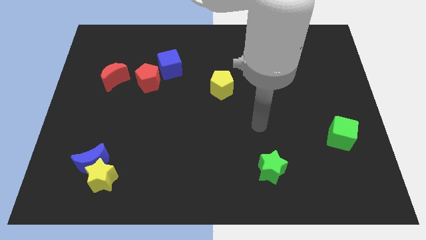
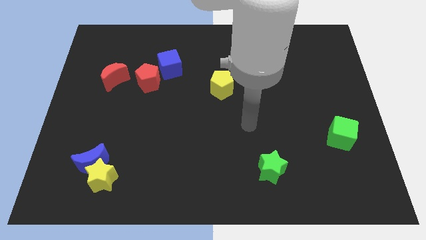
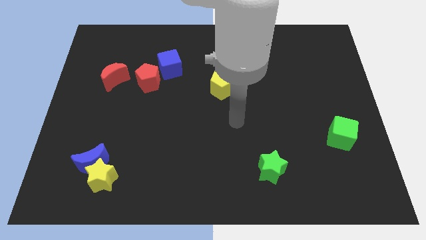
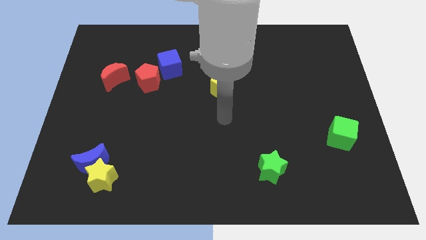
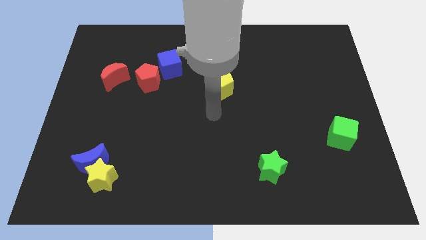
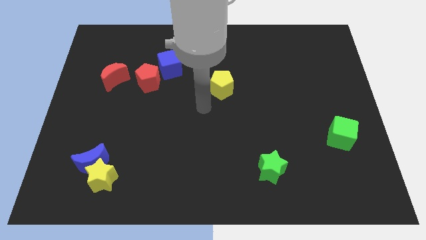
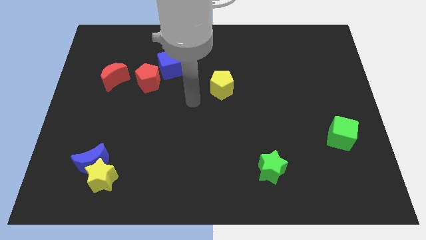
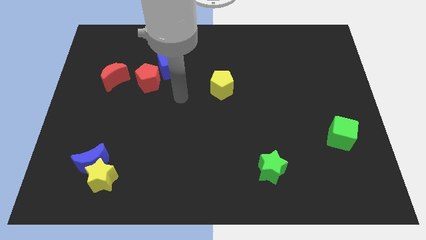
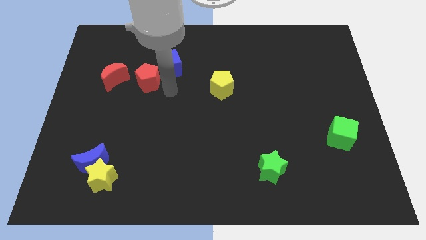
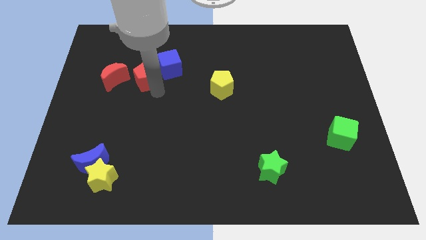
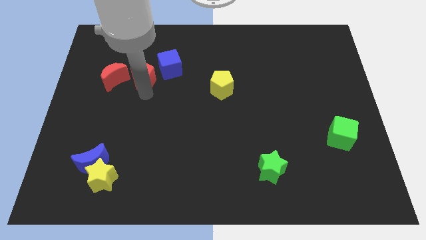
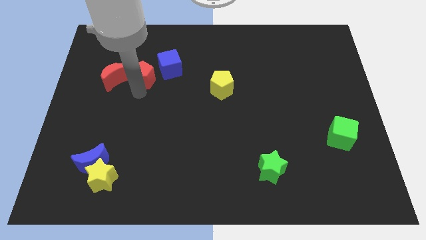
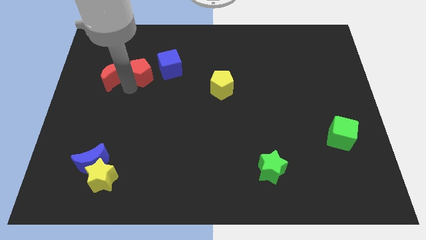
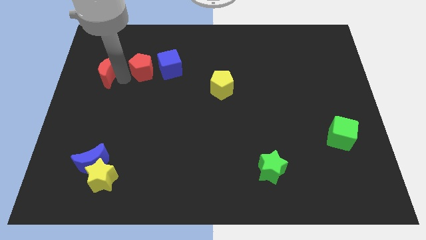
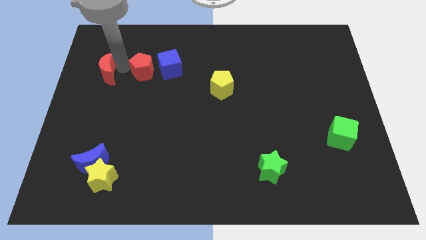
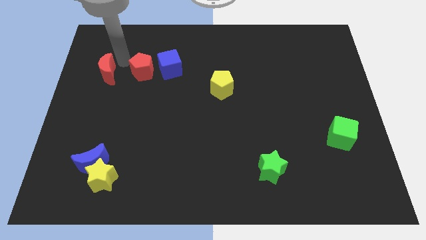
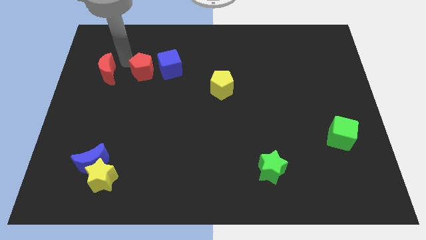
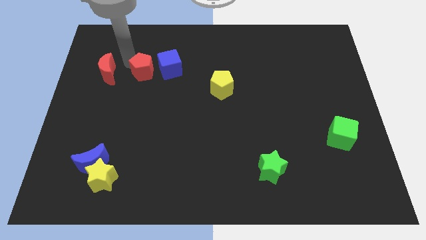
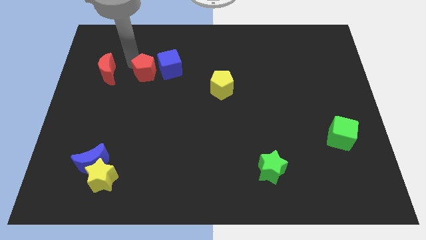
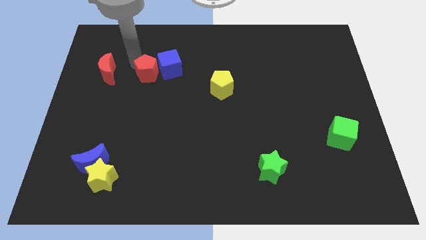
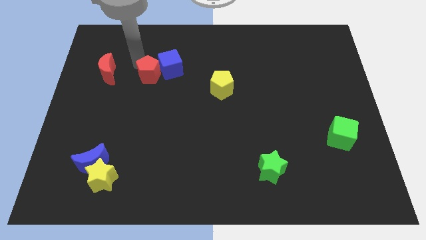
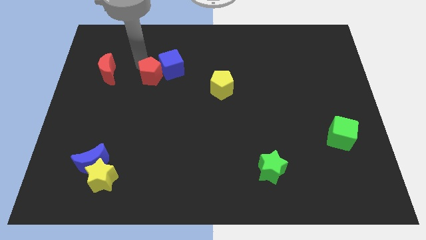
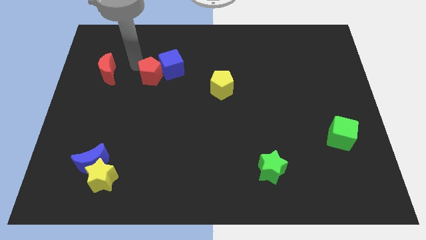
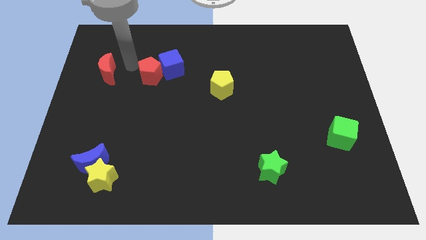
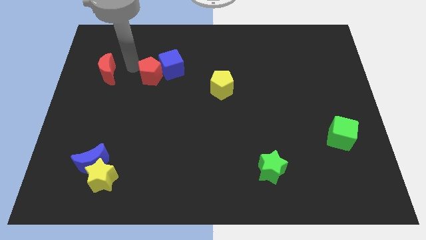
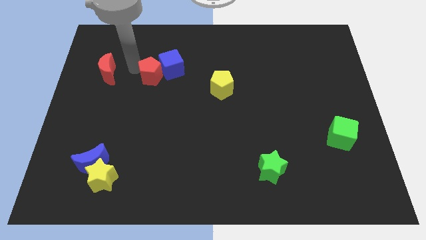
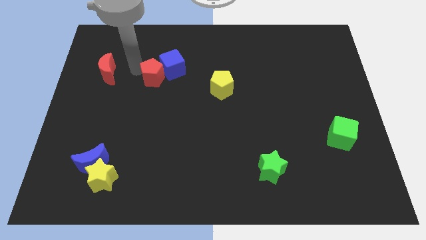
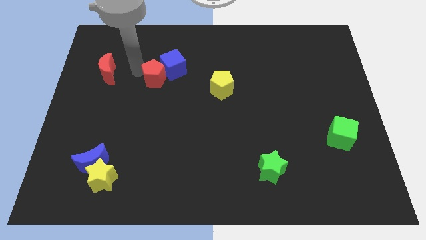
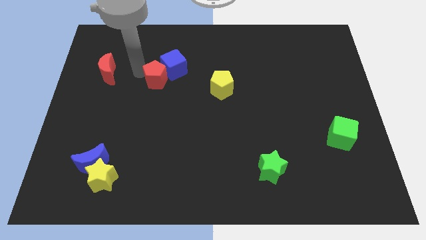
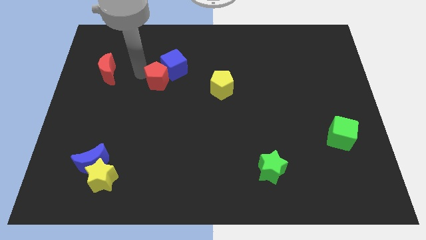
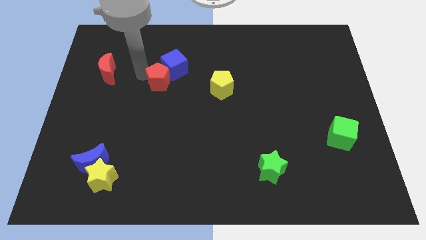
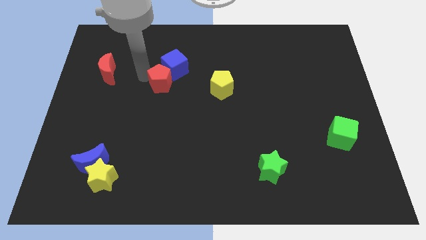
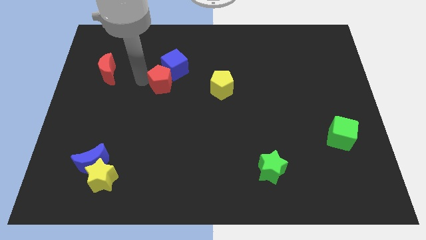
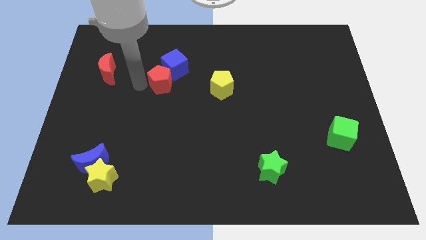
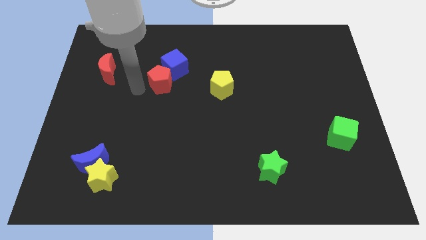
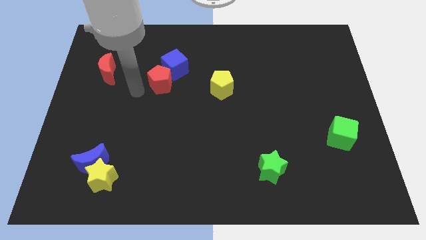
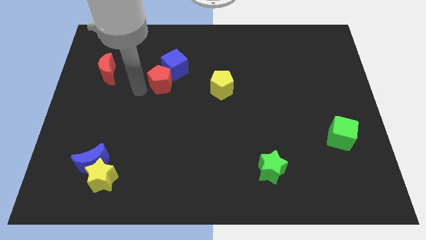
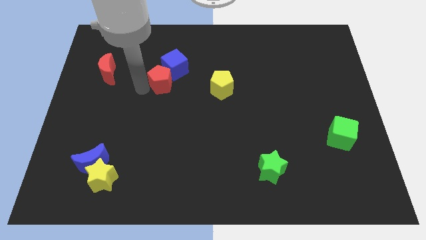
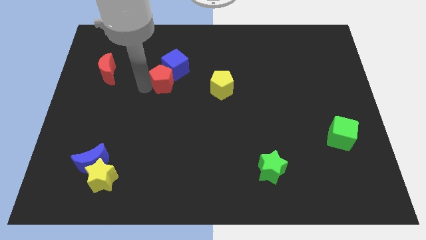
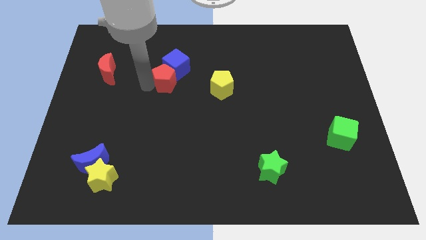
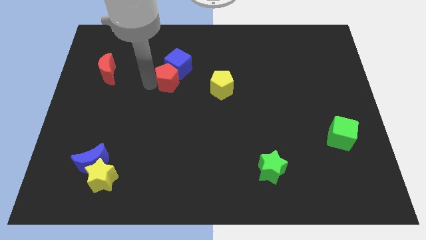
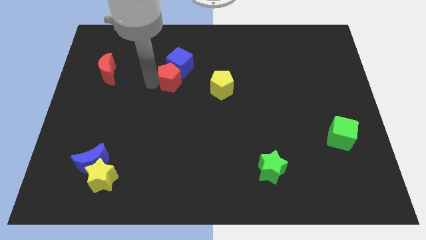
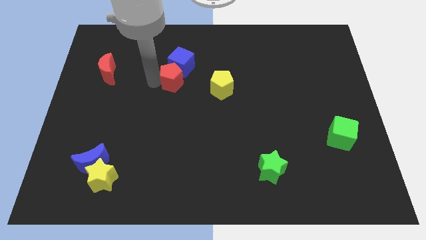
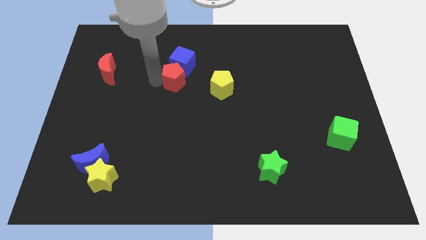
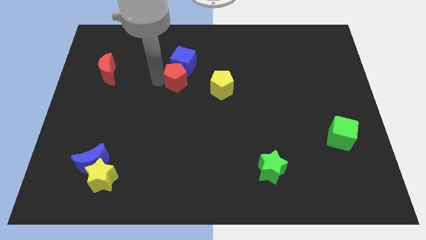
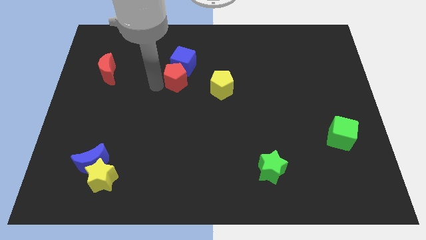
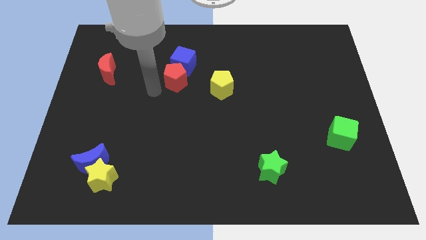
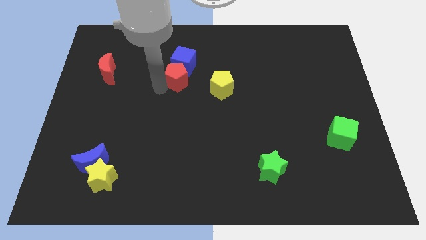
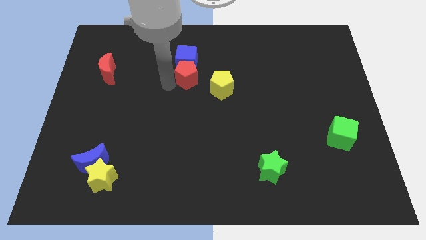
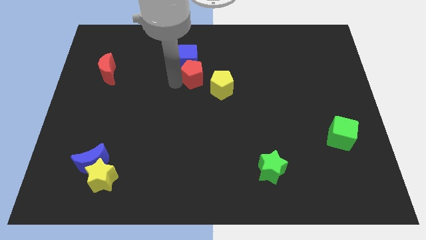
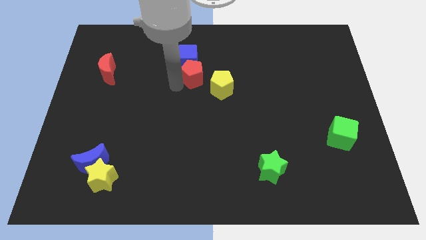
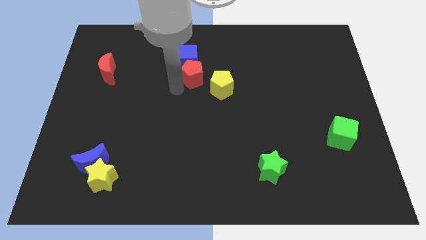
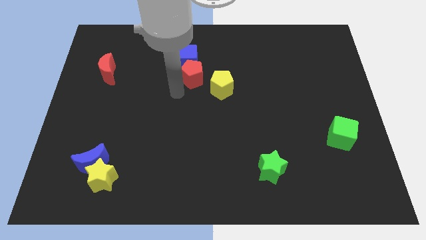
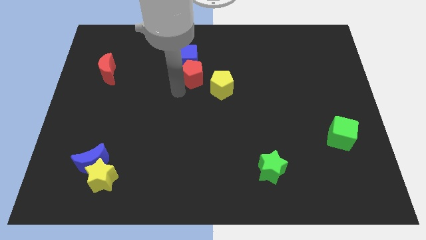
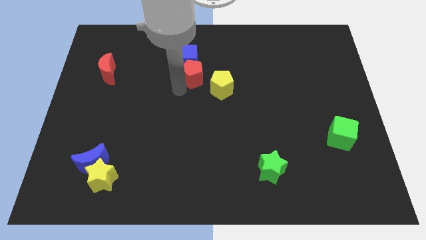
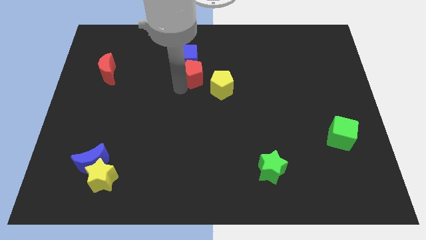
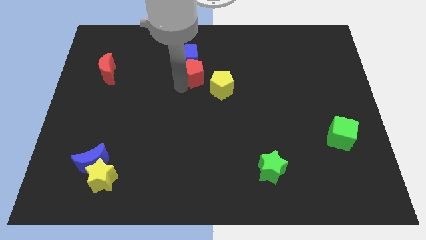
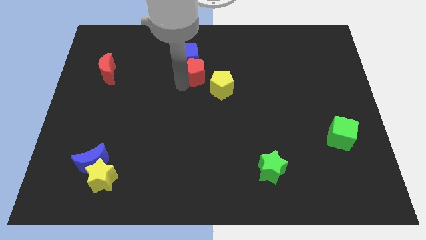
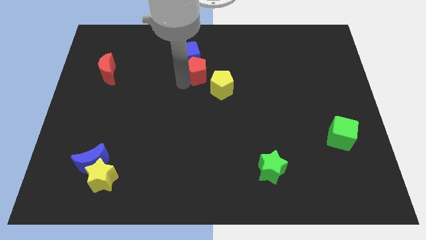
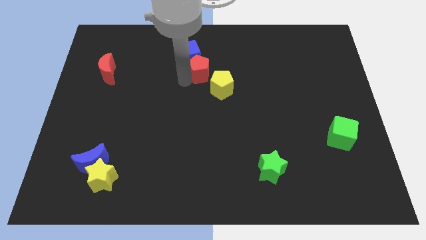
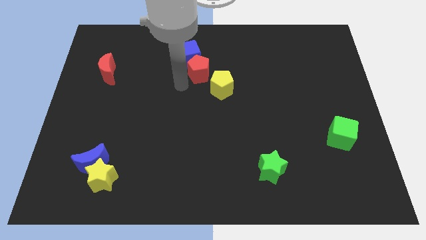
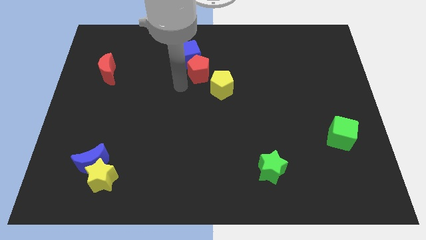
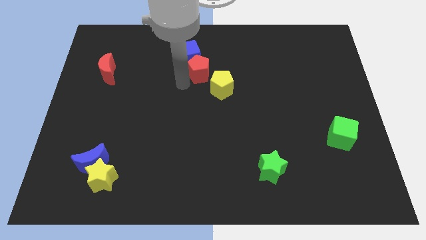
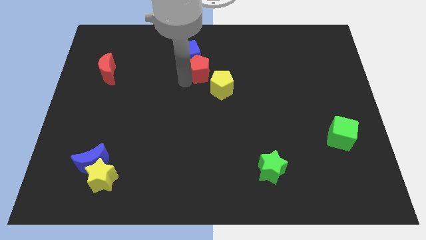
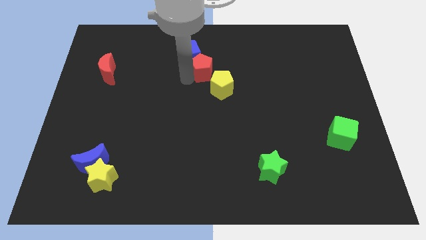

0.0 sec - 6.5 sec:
push the red pentagon to the top of the yellow pentagon

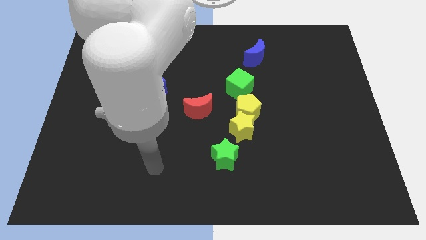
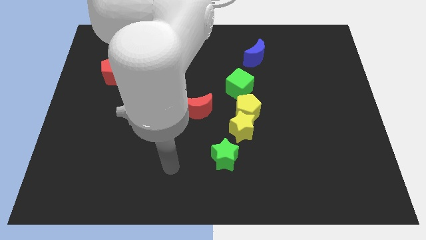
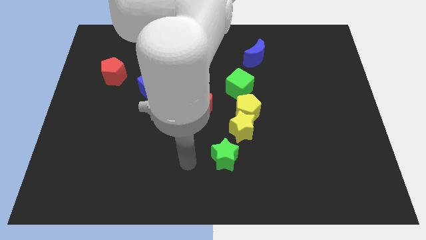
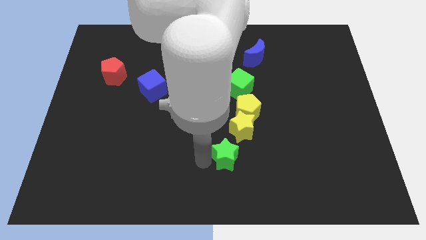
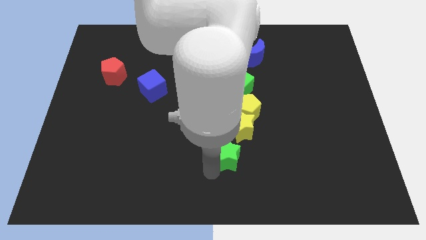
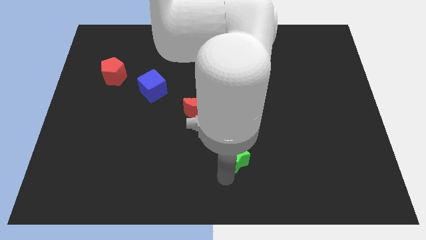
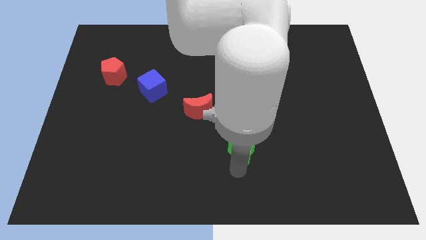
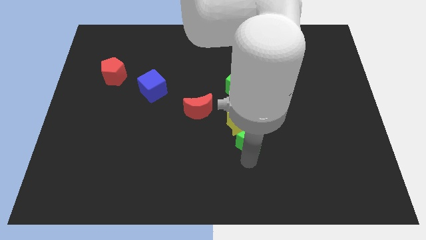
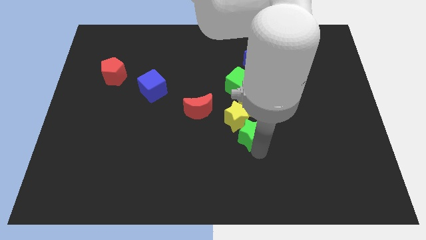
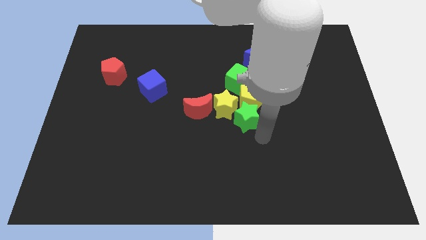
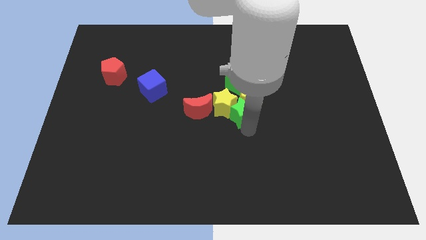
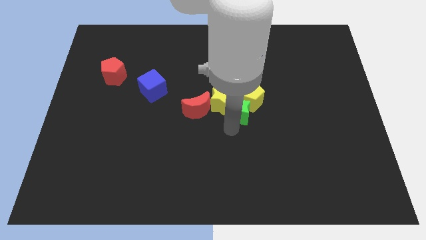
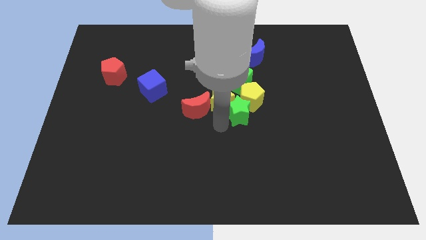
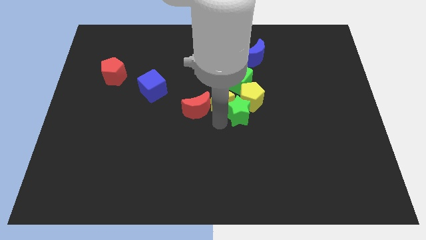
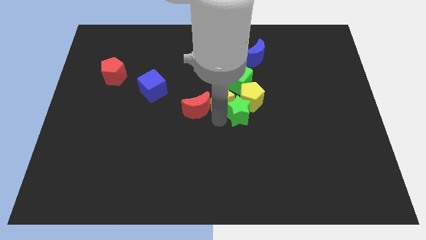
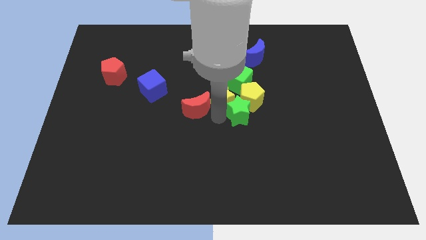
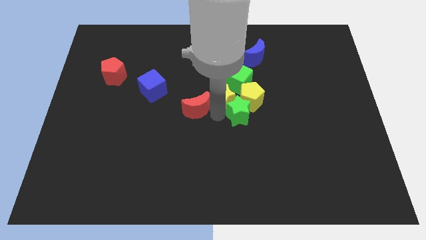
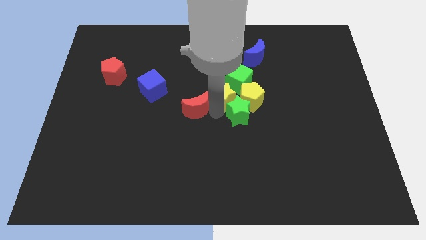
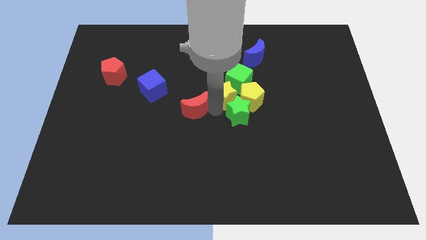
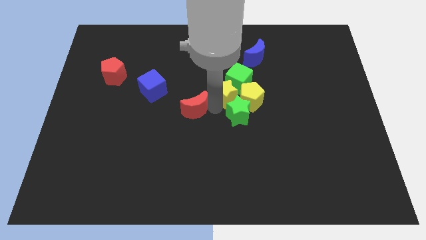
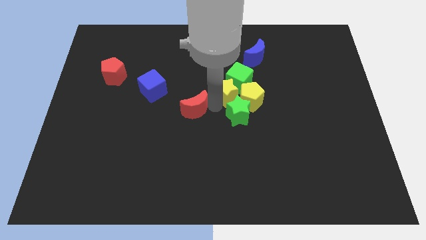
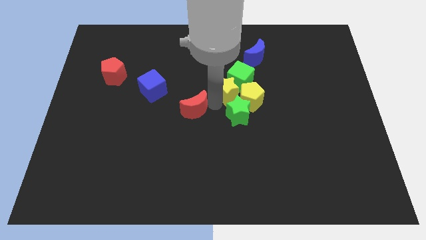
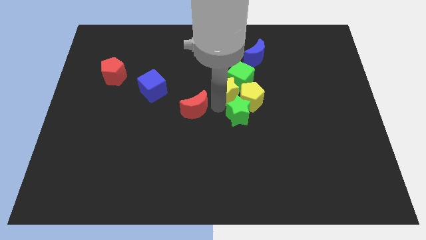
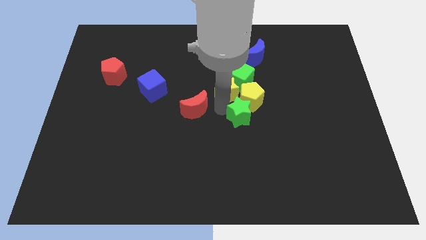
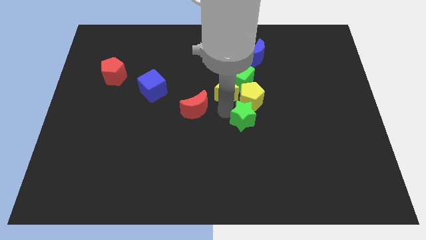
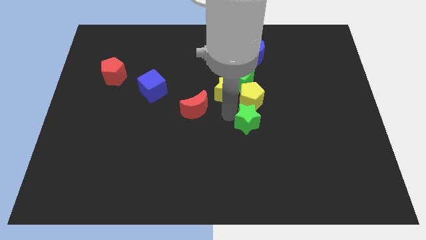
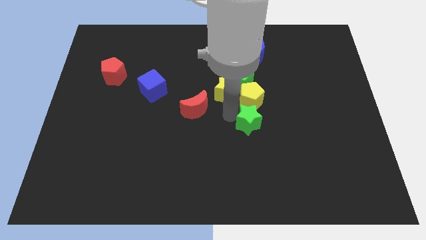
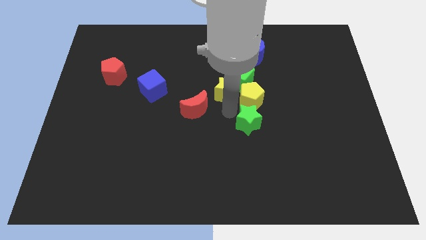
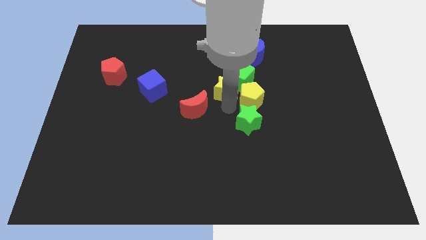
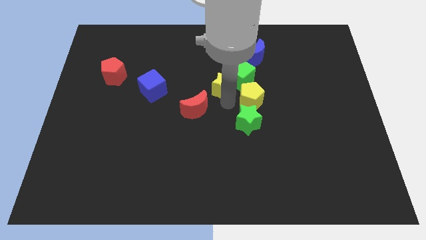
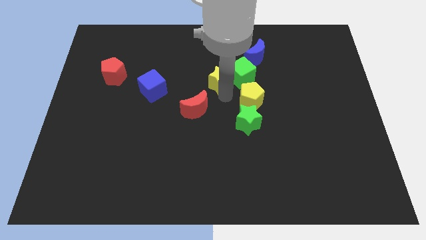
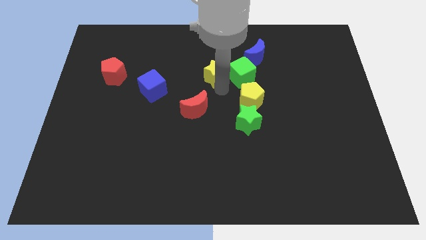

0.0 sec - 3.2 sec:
push the yellow star diagonally up and to the left of the green cube
